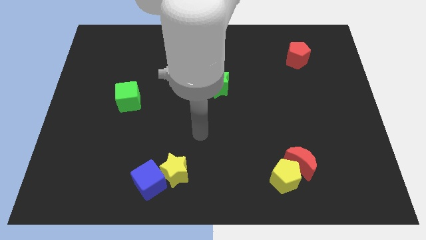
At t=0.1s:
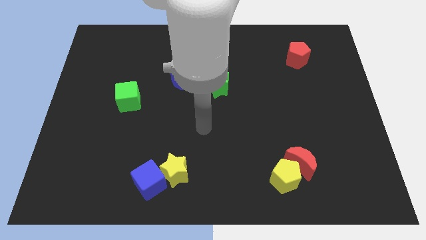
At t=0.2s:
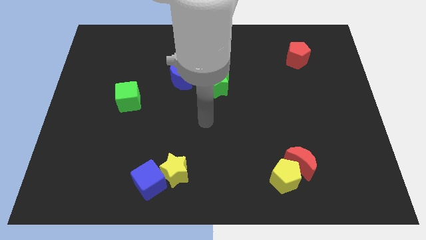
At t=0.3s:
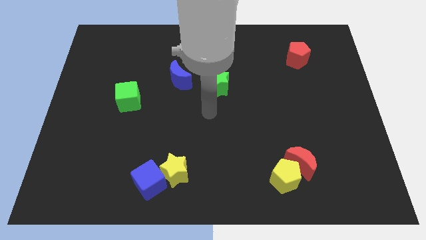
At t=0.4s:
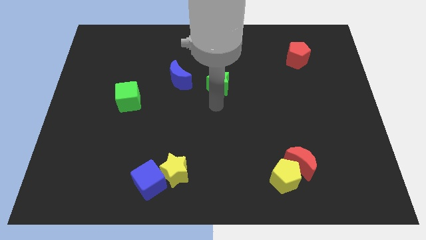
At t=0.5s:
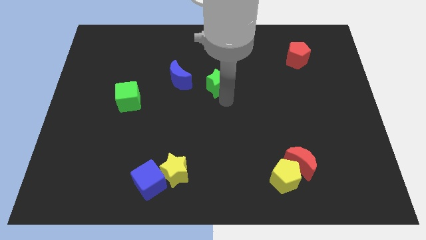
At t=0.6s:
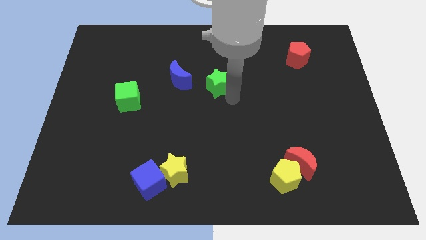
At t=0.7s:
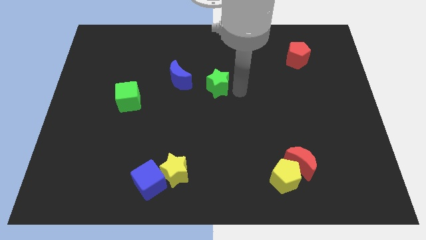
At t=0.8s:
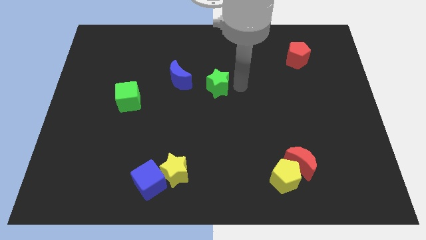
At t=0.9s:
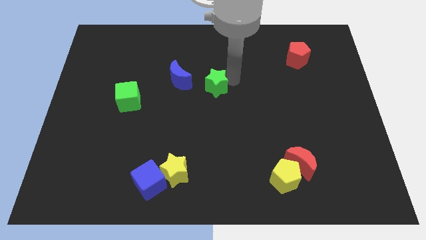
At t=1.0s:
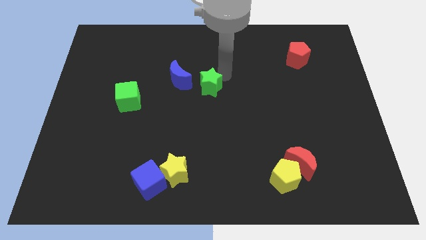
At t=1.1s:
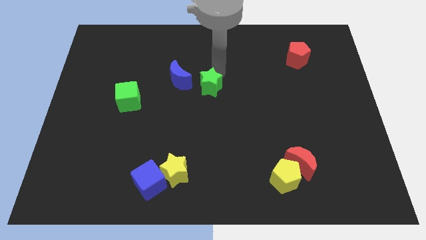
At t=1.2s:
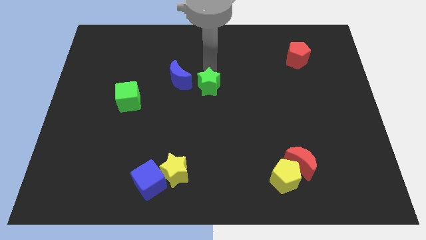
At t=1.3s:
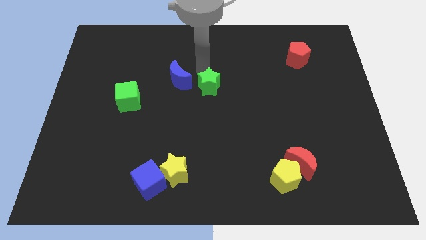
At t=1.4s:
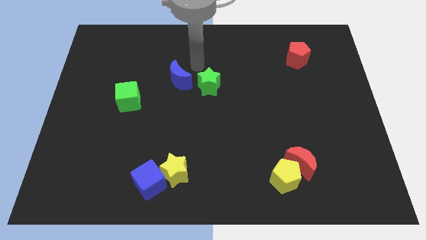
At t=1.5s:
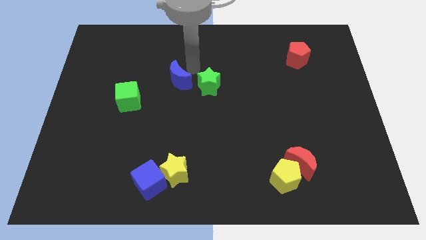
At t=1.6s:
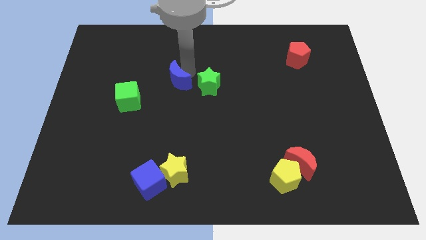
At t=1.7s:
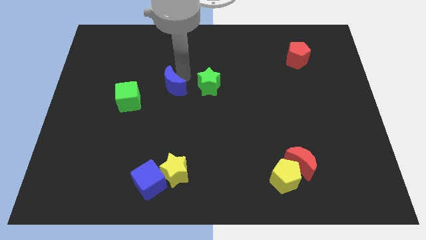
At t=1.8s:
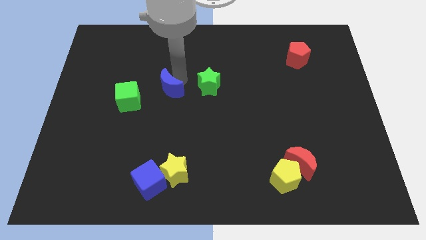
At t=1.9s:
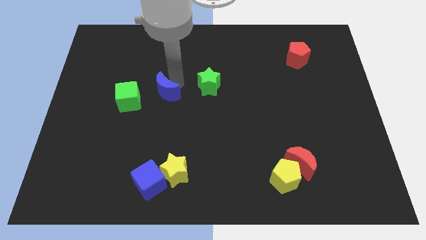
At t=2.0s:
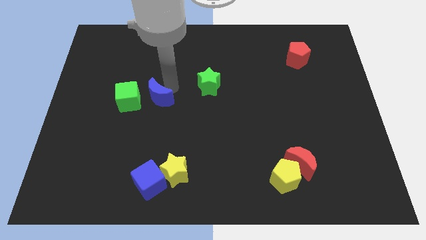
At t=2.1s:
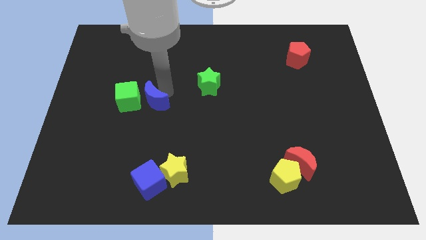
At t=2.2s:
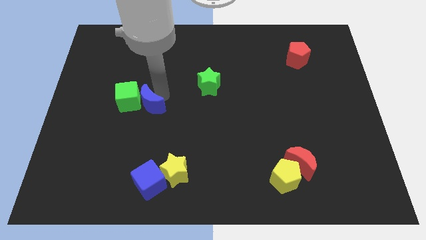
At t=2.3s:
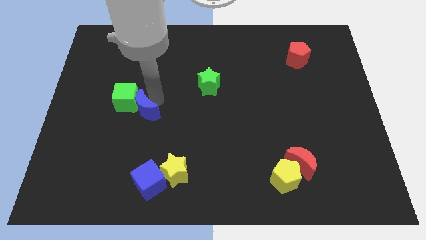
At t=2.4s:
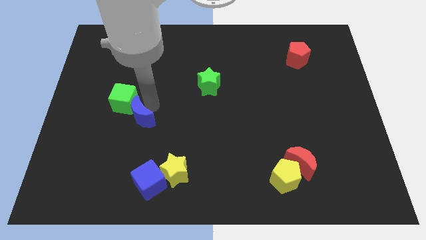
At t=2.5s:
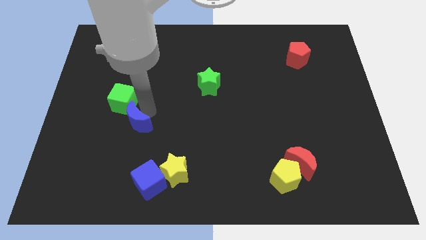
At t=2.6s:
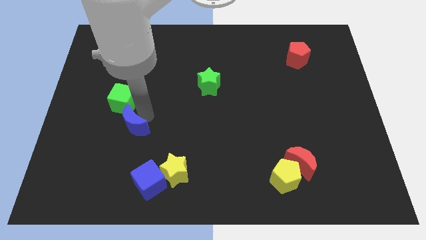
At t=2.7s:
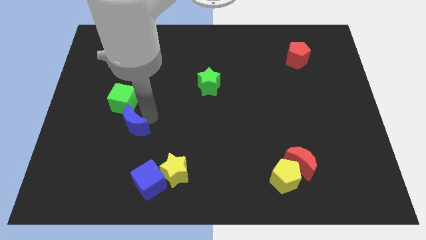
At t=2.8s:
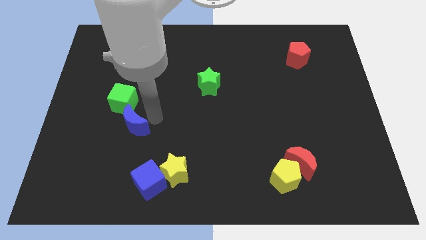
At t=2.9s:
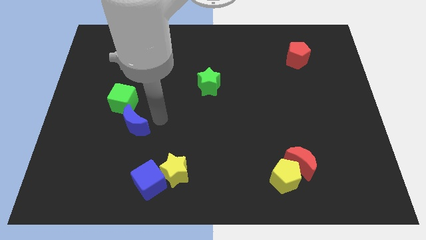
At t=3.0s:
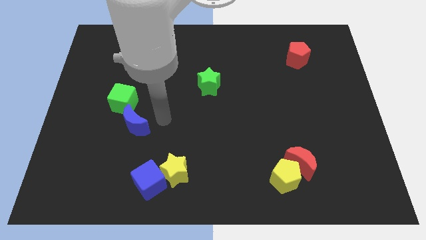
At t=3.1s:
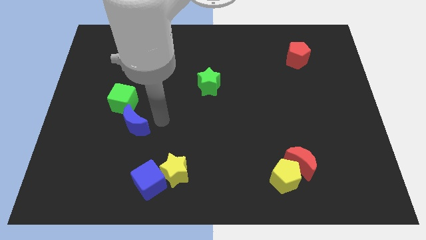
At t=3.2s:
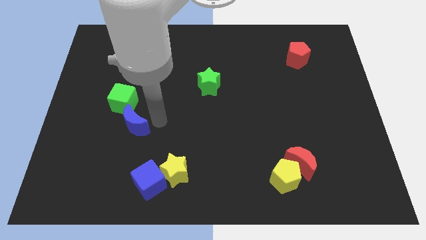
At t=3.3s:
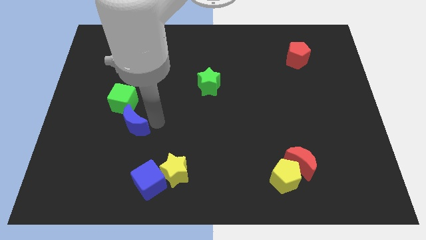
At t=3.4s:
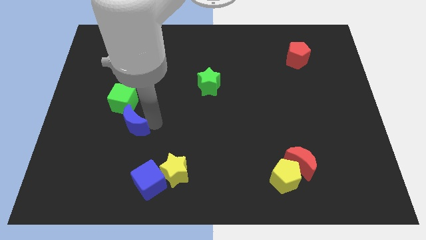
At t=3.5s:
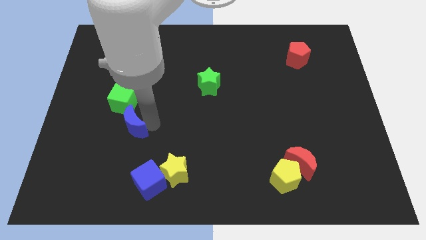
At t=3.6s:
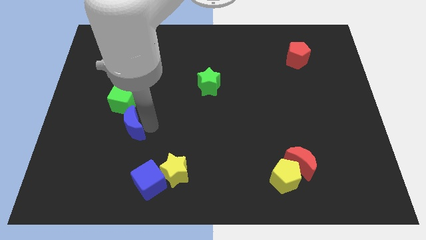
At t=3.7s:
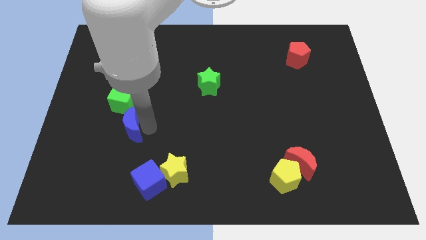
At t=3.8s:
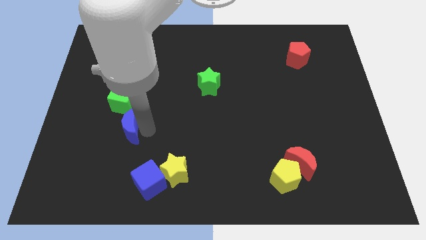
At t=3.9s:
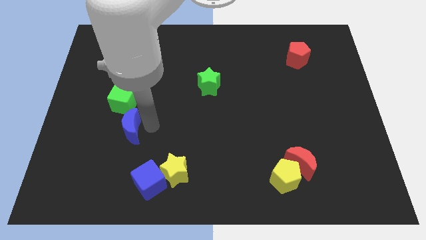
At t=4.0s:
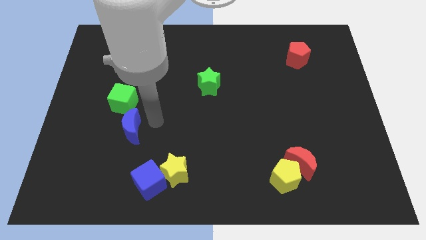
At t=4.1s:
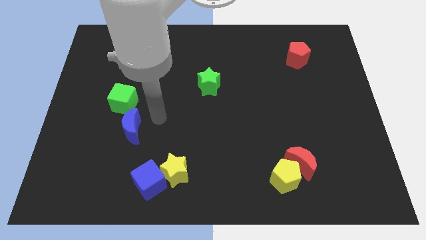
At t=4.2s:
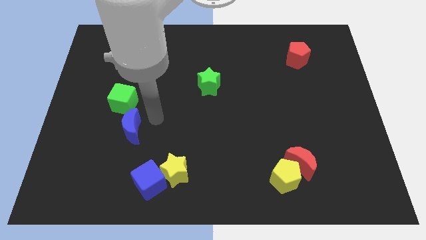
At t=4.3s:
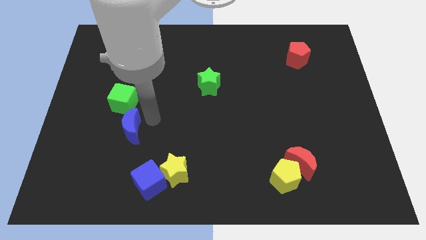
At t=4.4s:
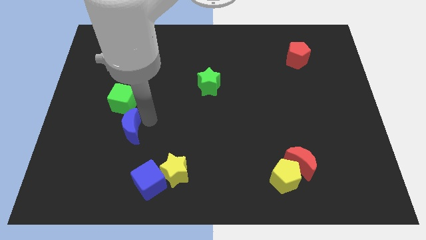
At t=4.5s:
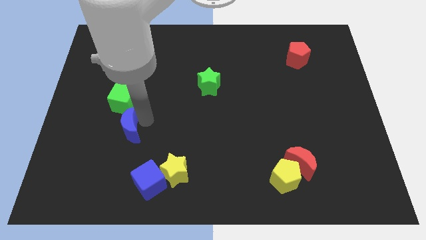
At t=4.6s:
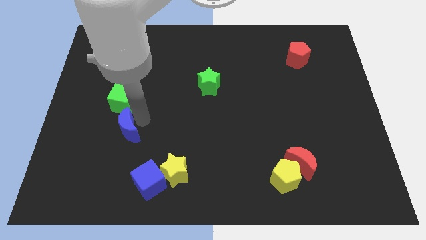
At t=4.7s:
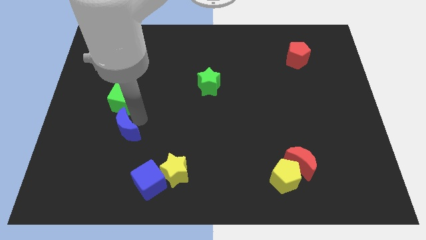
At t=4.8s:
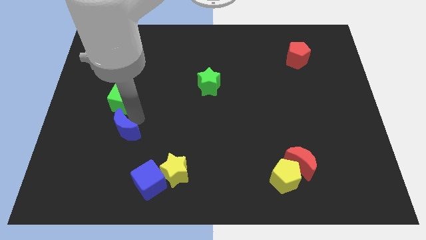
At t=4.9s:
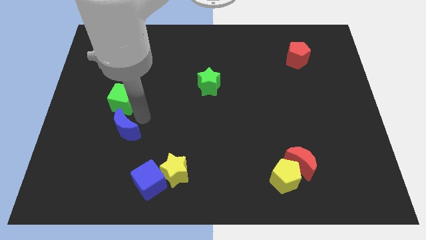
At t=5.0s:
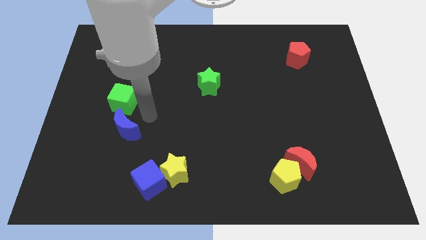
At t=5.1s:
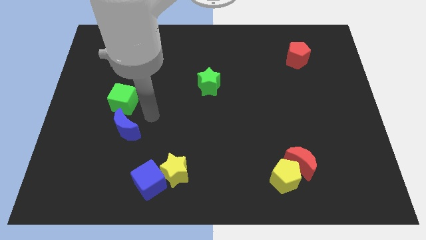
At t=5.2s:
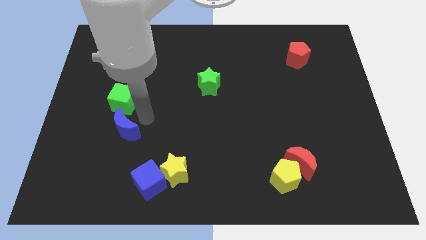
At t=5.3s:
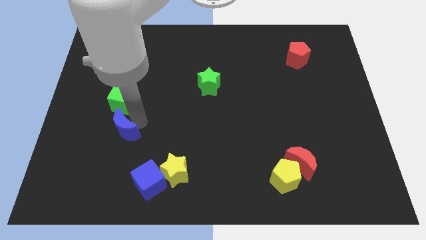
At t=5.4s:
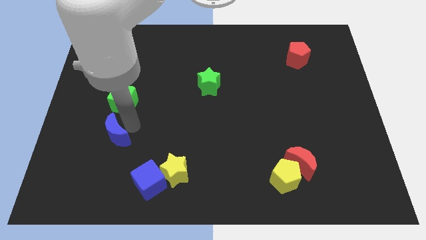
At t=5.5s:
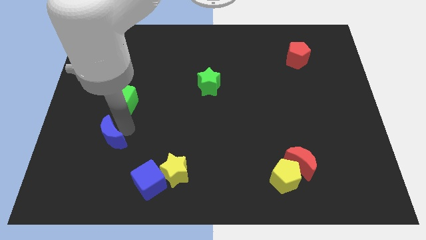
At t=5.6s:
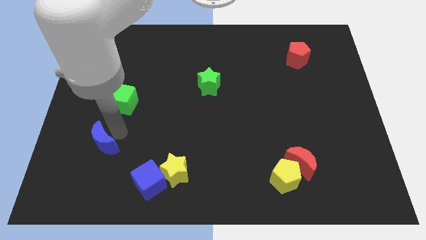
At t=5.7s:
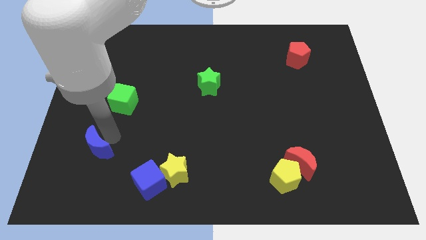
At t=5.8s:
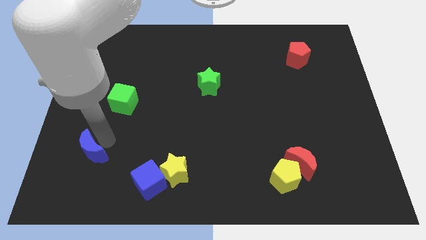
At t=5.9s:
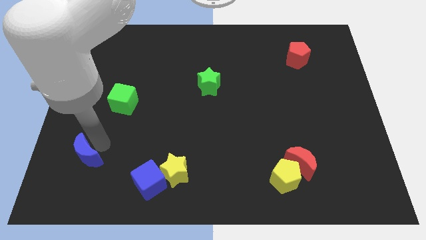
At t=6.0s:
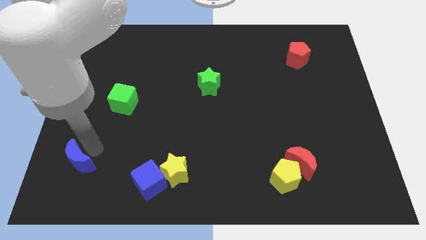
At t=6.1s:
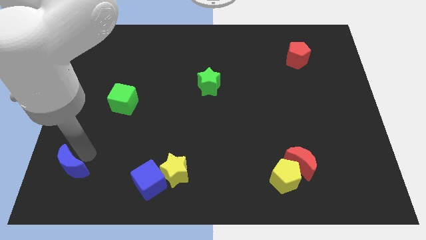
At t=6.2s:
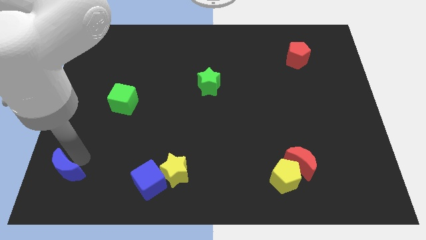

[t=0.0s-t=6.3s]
put the blue moon to the lower left corner

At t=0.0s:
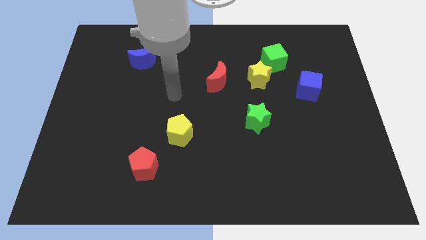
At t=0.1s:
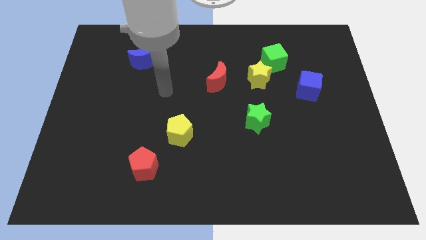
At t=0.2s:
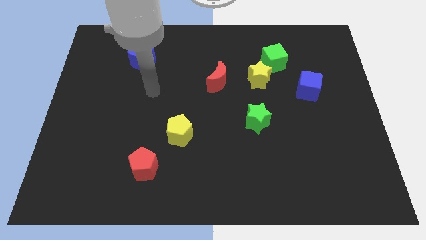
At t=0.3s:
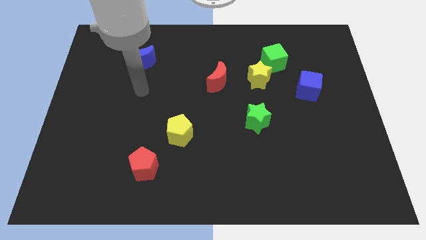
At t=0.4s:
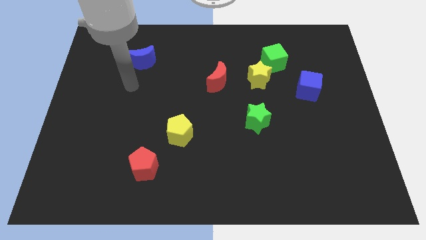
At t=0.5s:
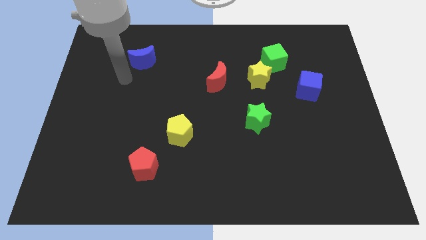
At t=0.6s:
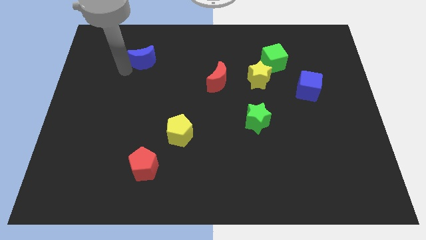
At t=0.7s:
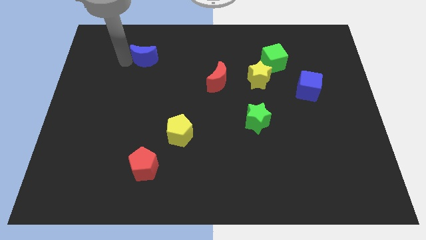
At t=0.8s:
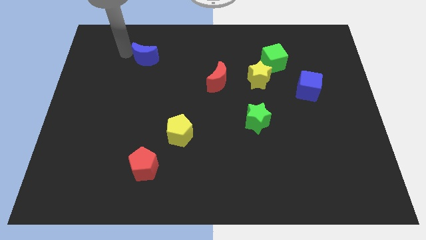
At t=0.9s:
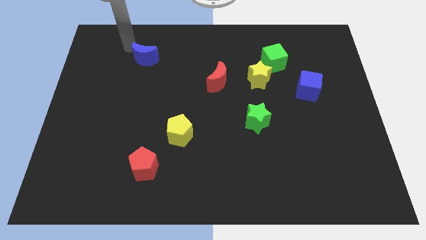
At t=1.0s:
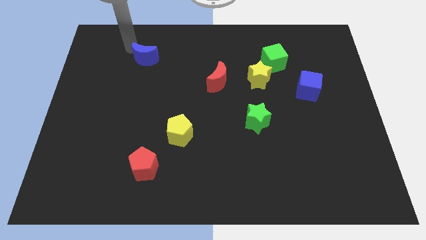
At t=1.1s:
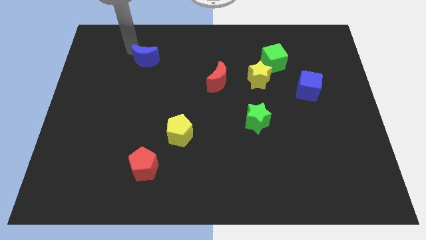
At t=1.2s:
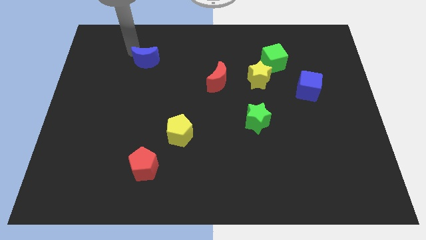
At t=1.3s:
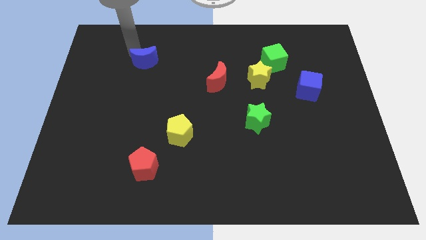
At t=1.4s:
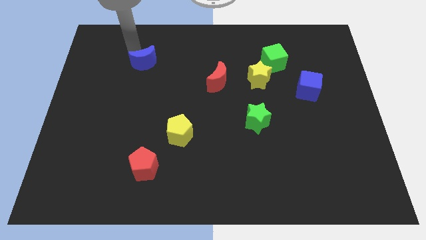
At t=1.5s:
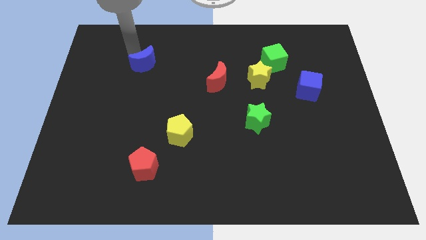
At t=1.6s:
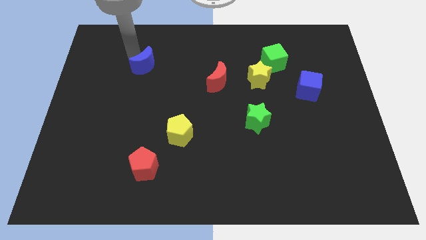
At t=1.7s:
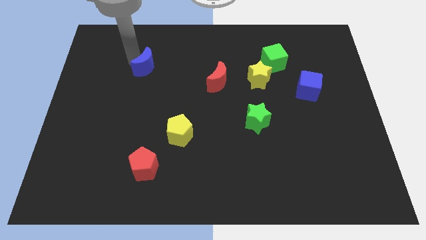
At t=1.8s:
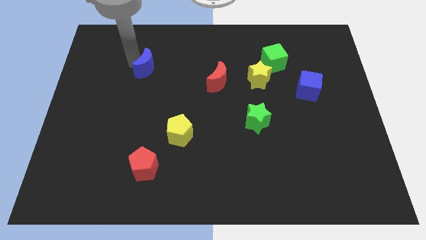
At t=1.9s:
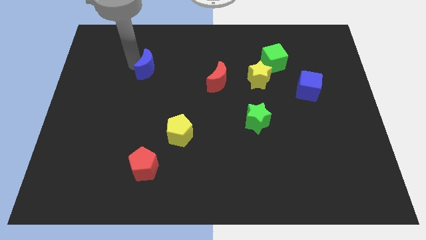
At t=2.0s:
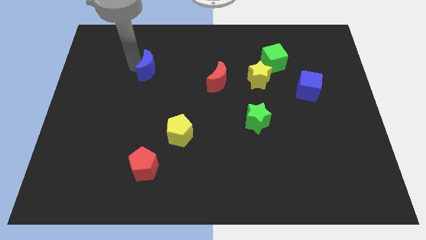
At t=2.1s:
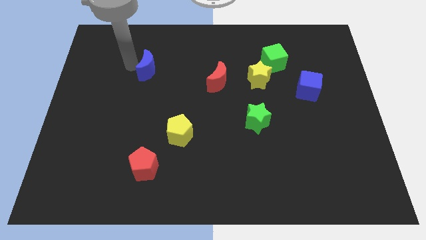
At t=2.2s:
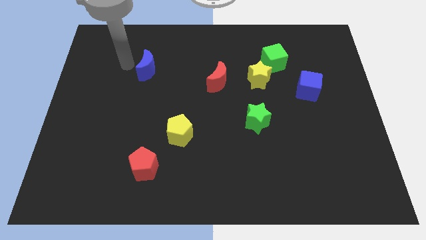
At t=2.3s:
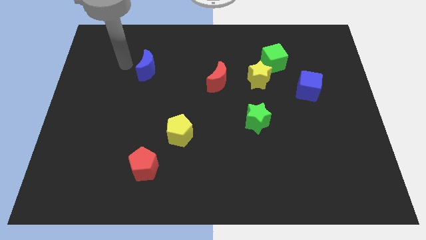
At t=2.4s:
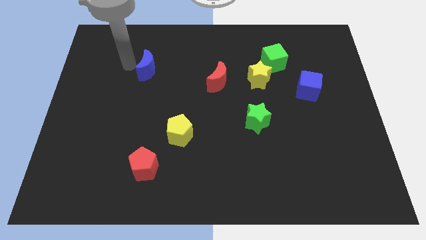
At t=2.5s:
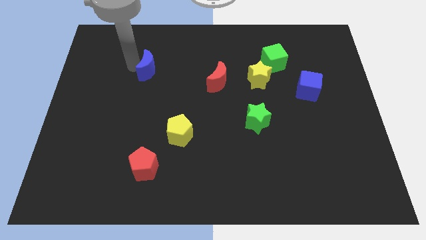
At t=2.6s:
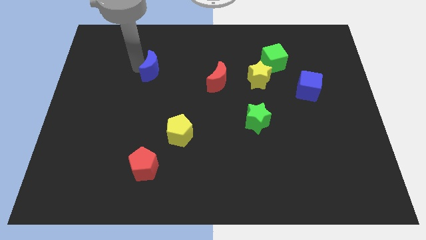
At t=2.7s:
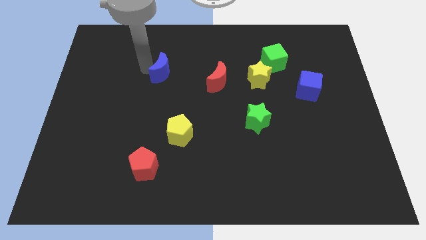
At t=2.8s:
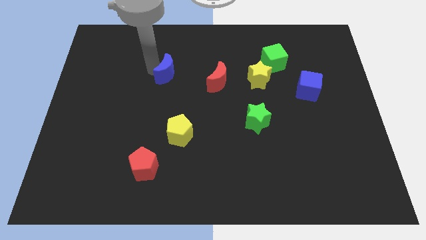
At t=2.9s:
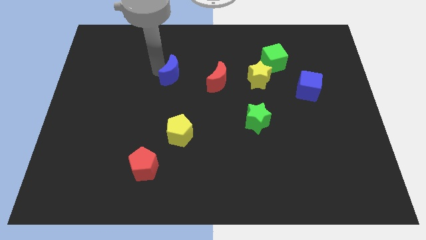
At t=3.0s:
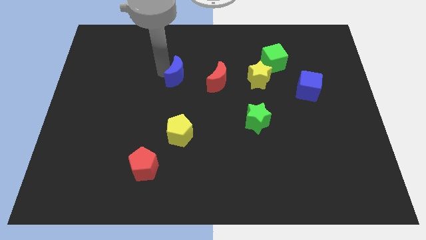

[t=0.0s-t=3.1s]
move the blue moon to the middle of the board
